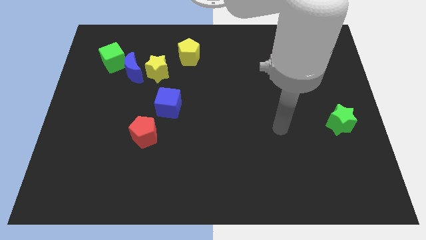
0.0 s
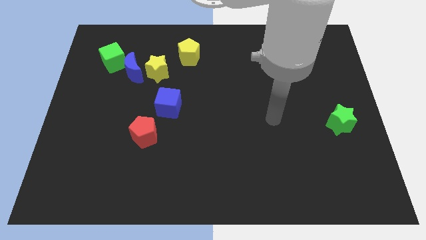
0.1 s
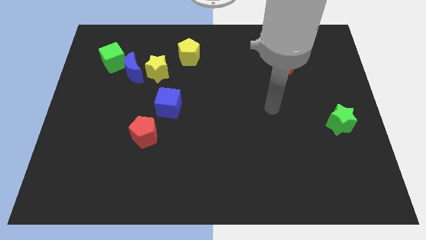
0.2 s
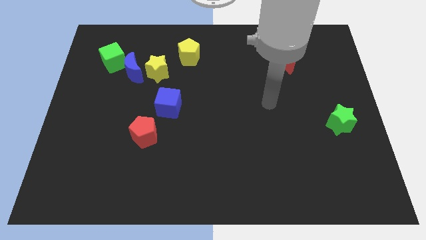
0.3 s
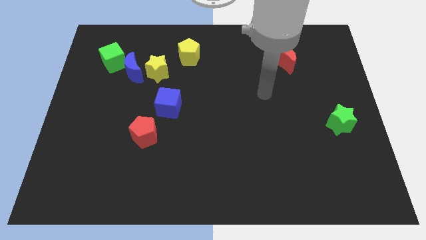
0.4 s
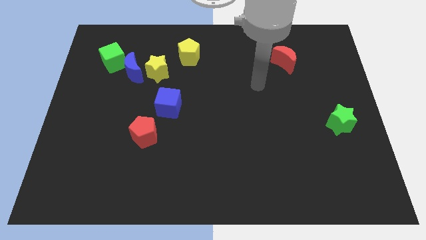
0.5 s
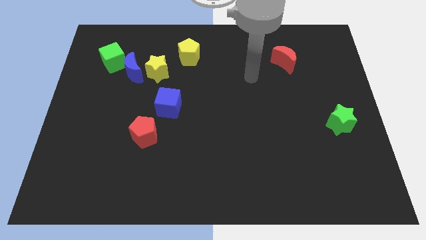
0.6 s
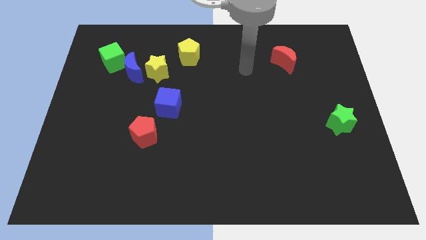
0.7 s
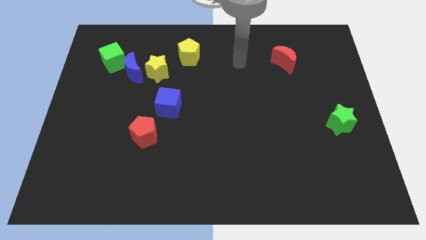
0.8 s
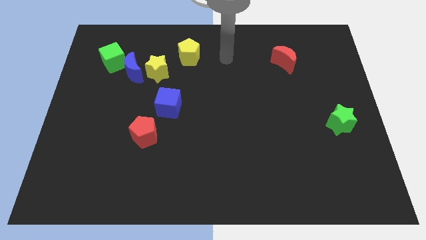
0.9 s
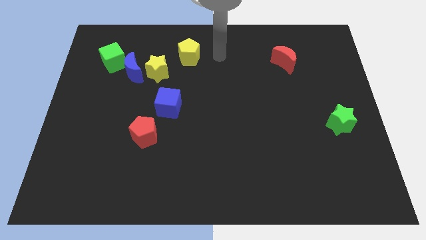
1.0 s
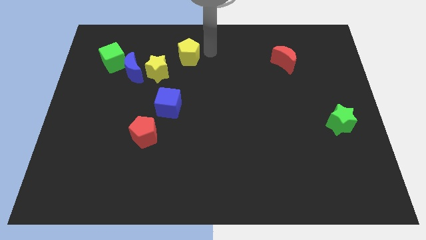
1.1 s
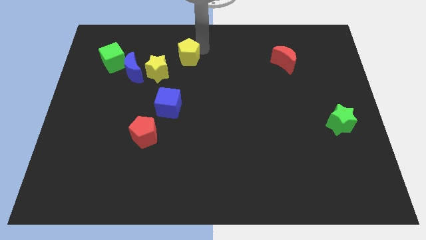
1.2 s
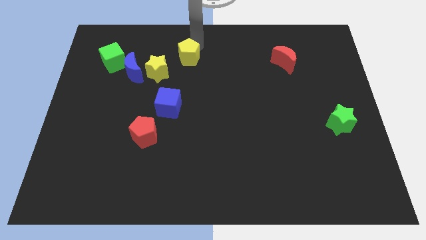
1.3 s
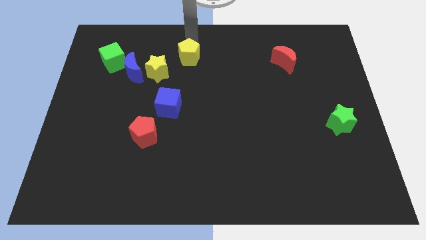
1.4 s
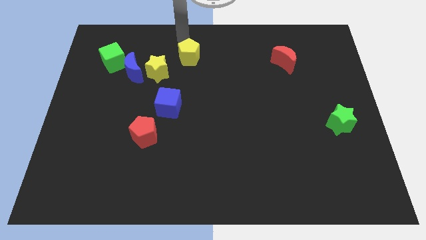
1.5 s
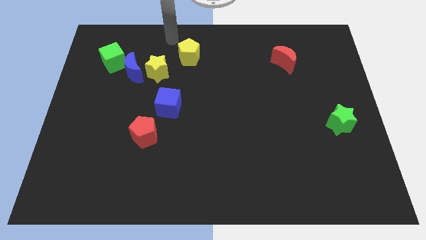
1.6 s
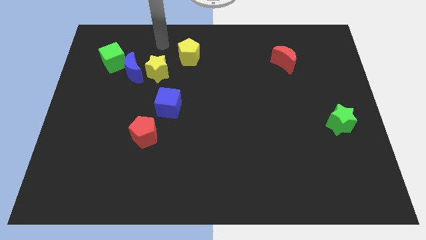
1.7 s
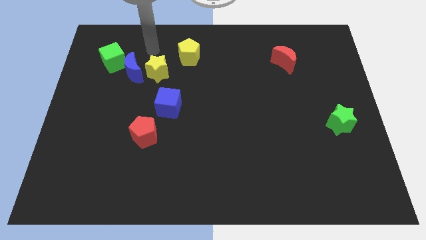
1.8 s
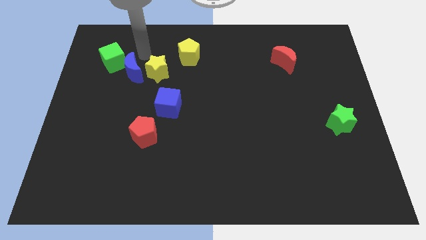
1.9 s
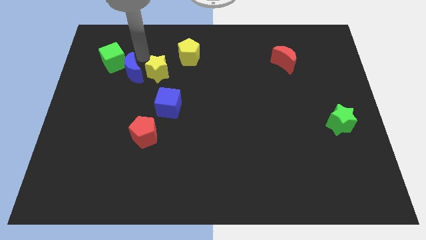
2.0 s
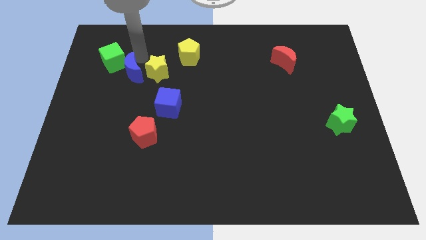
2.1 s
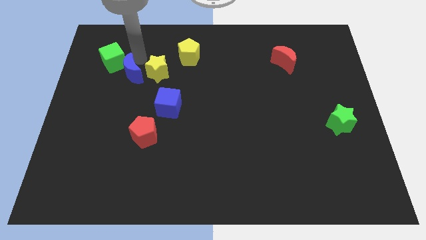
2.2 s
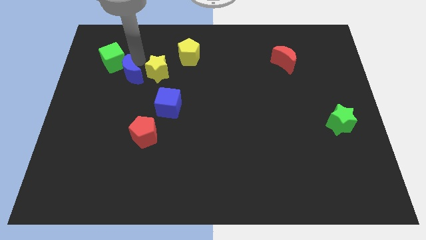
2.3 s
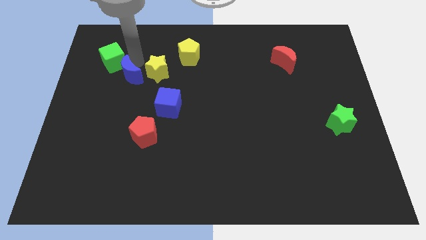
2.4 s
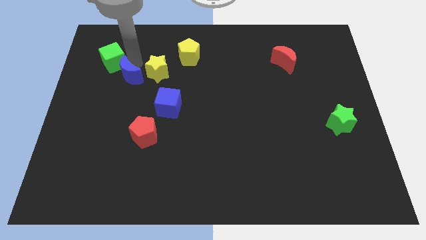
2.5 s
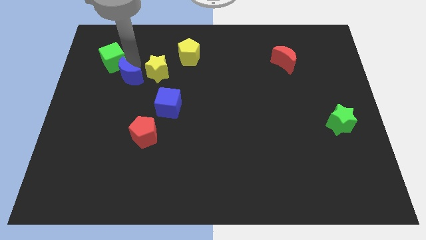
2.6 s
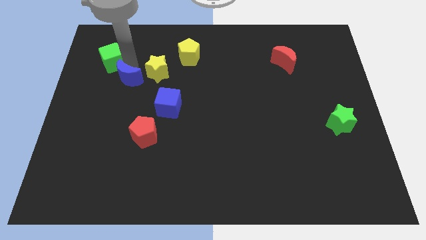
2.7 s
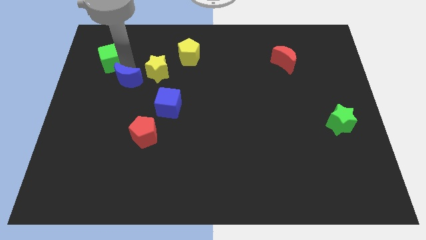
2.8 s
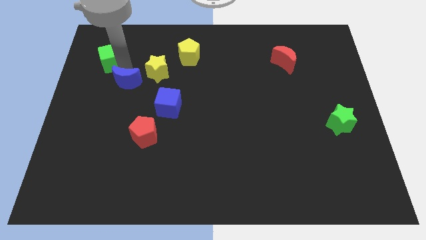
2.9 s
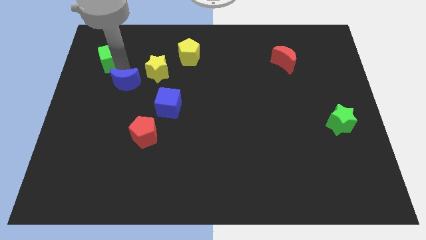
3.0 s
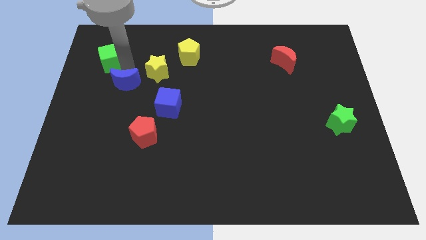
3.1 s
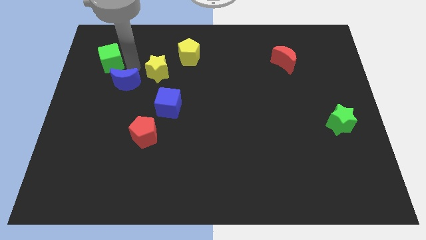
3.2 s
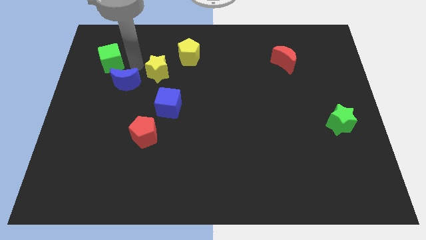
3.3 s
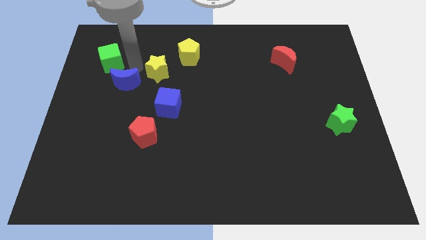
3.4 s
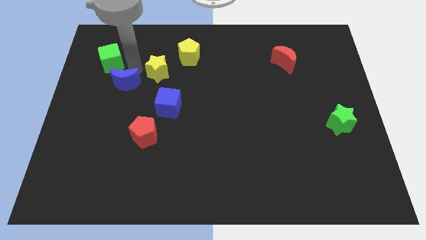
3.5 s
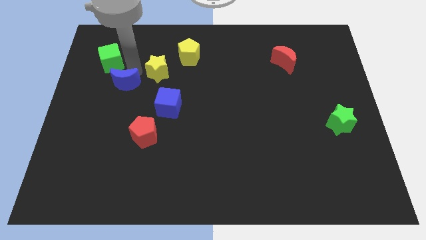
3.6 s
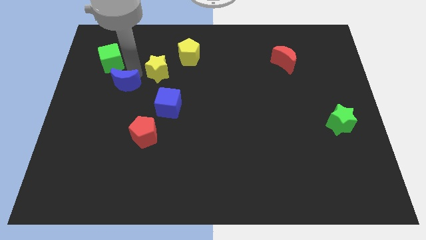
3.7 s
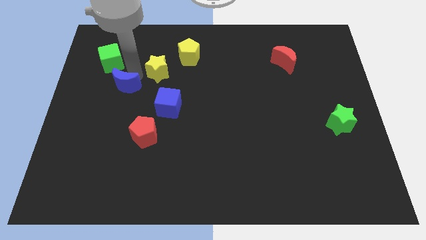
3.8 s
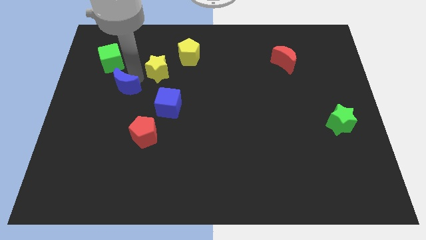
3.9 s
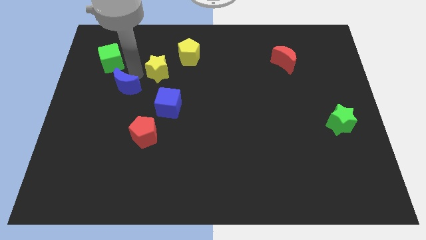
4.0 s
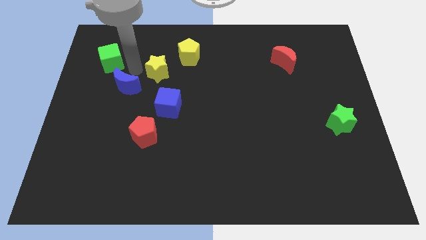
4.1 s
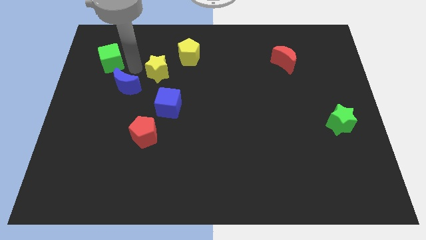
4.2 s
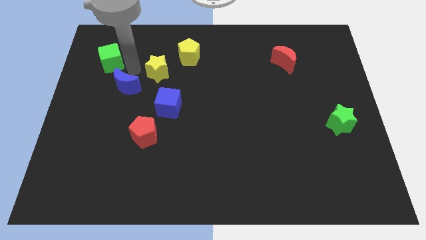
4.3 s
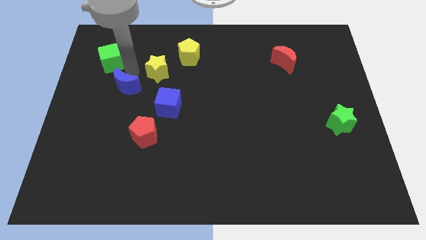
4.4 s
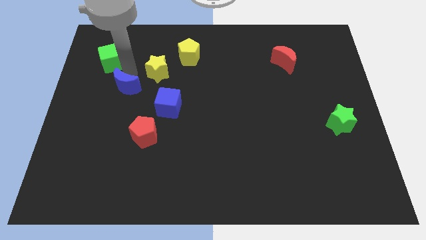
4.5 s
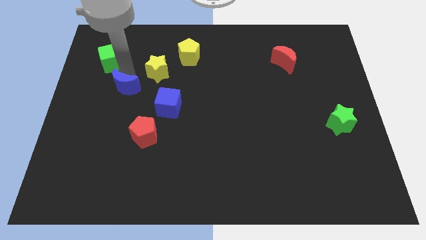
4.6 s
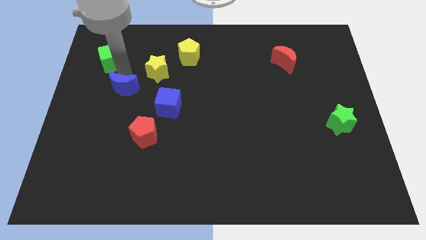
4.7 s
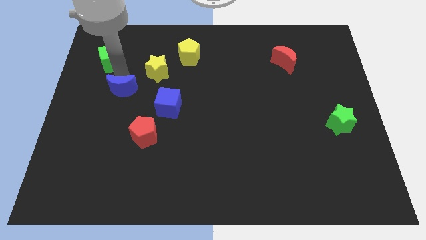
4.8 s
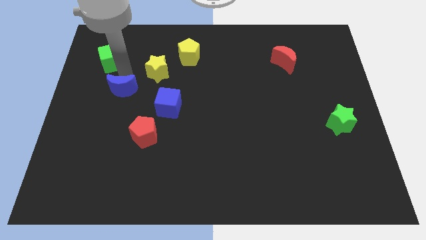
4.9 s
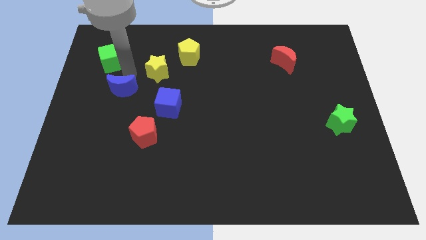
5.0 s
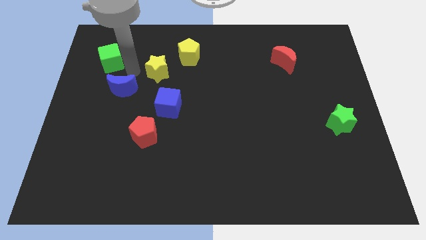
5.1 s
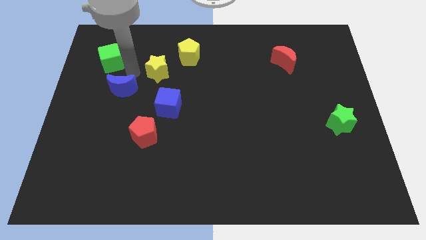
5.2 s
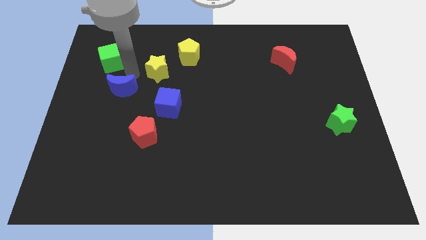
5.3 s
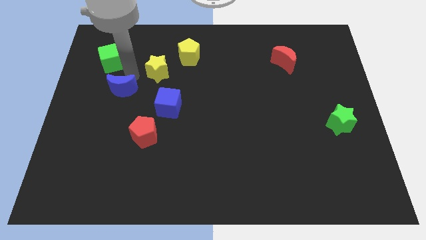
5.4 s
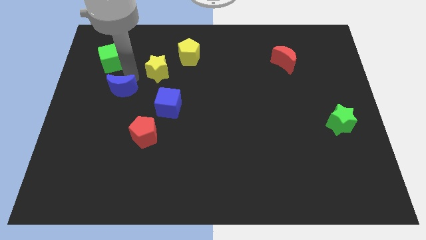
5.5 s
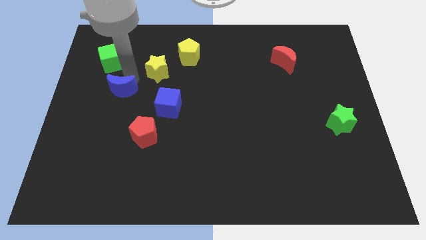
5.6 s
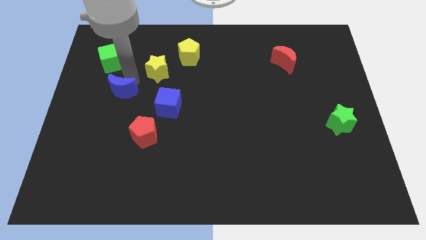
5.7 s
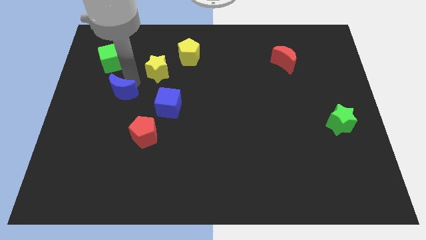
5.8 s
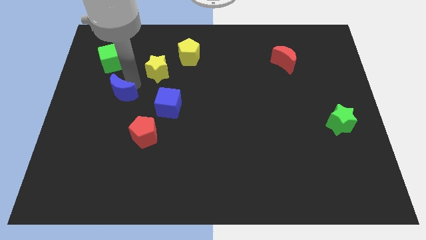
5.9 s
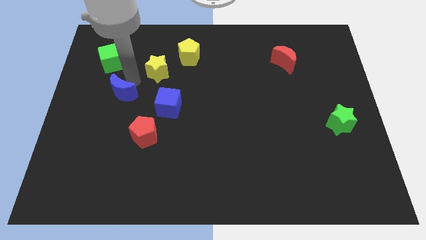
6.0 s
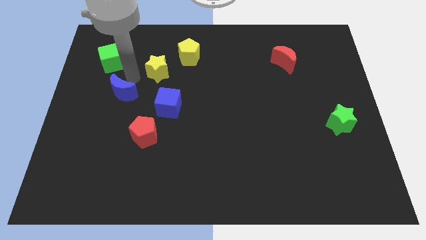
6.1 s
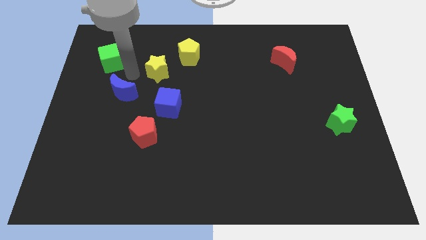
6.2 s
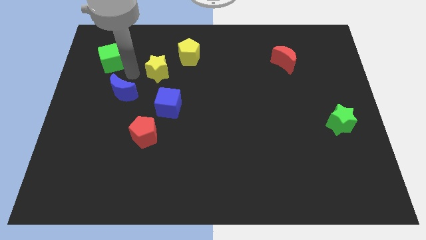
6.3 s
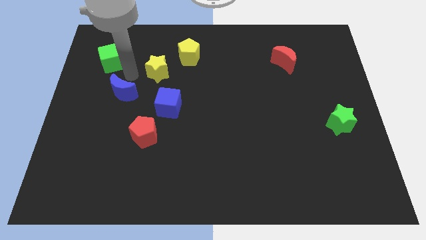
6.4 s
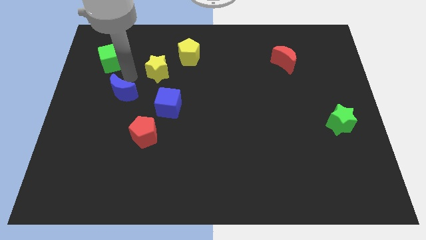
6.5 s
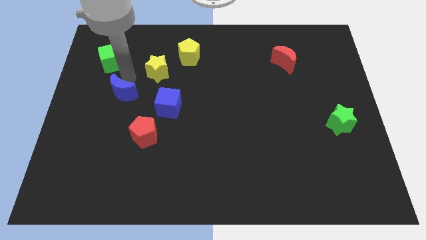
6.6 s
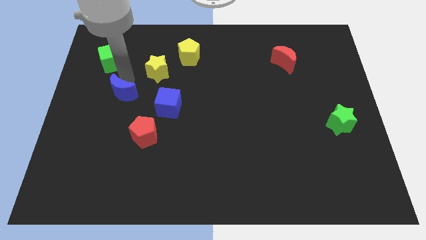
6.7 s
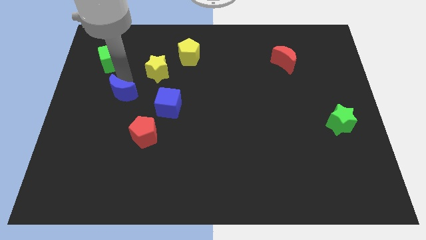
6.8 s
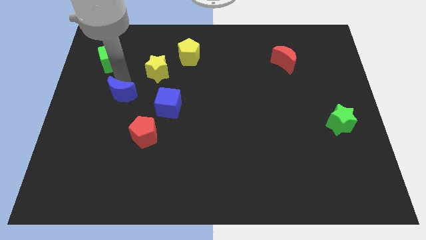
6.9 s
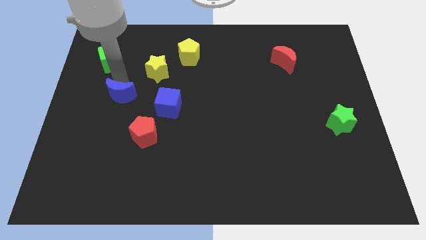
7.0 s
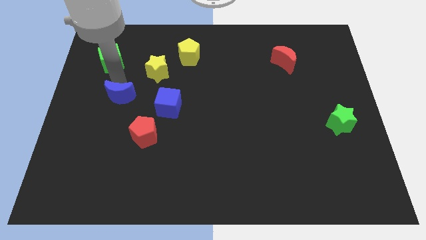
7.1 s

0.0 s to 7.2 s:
separate the blue moon from the yellow star and green cube

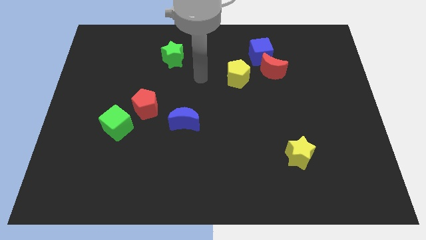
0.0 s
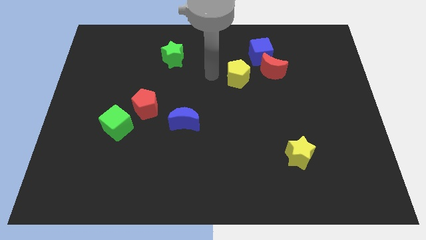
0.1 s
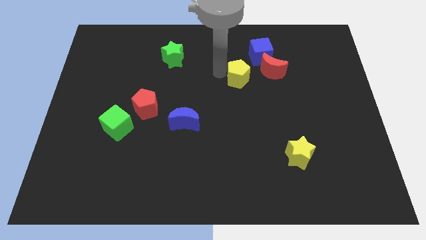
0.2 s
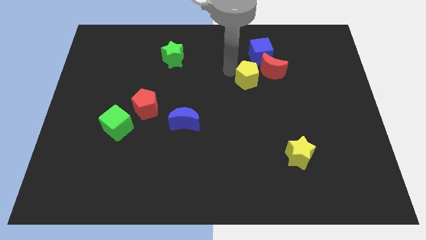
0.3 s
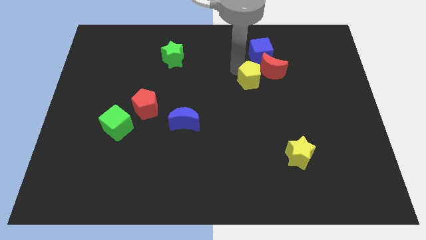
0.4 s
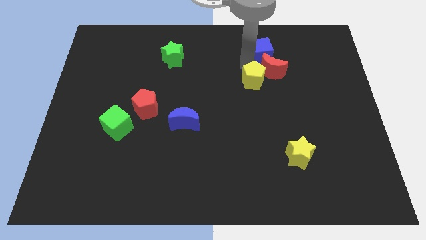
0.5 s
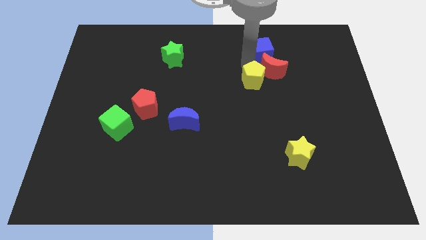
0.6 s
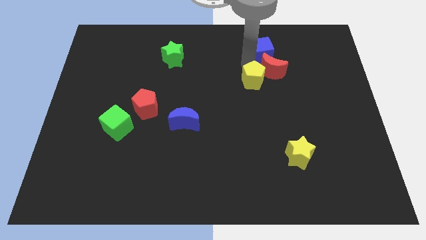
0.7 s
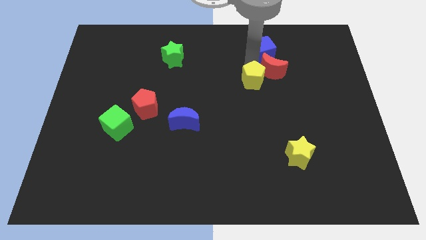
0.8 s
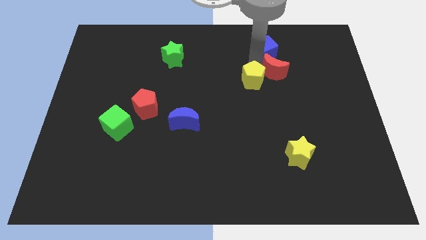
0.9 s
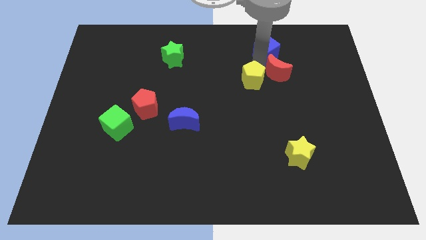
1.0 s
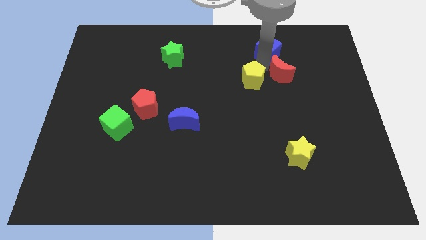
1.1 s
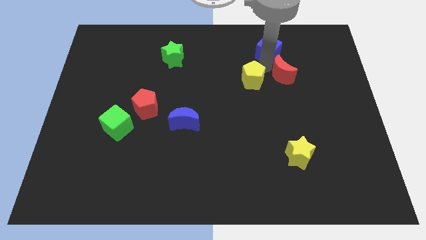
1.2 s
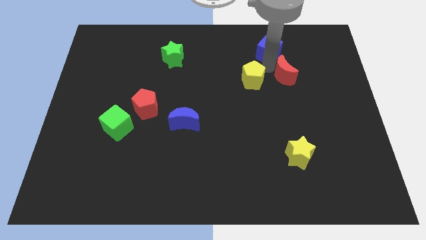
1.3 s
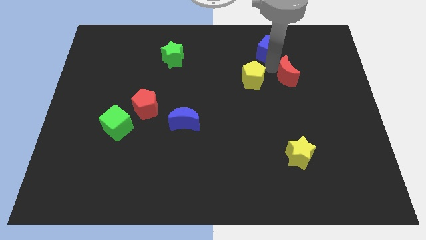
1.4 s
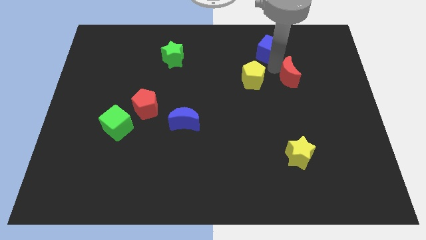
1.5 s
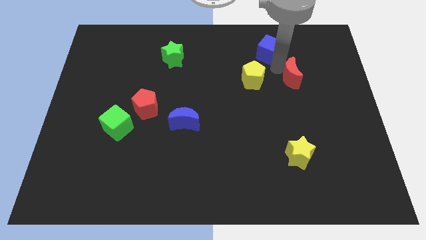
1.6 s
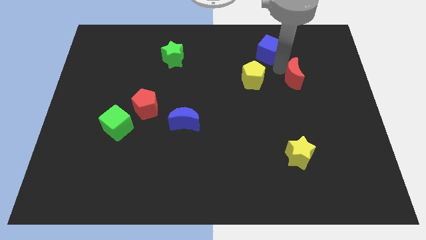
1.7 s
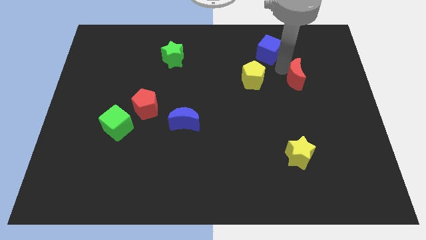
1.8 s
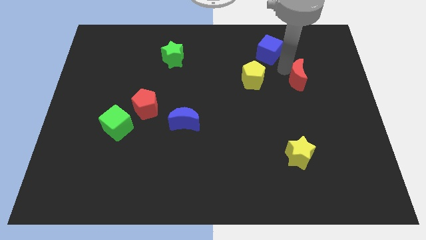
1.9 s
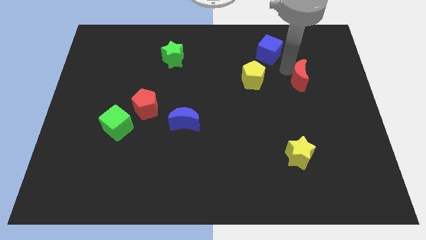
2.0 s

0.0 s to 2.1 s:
separate the red moon from the blue cube and yellow pentagon

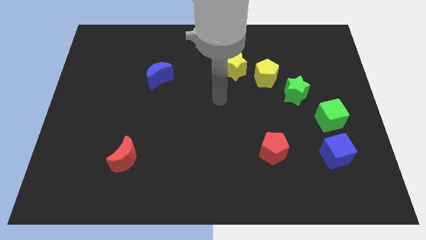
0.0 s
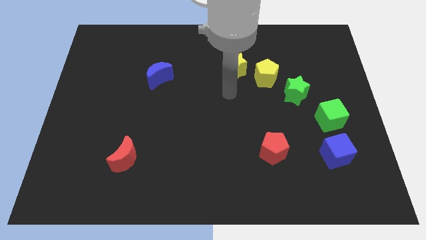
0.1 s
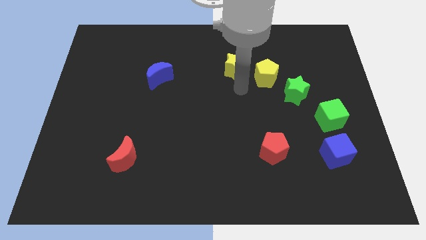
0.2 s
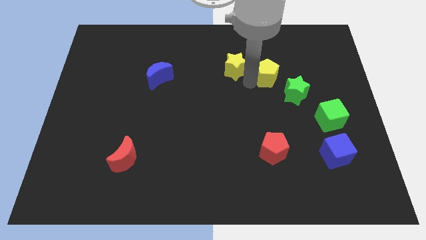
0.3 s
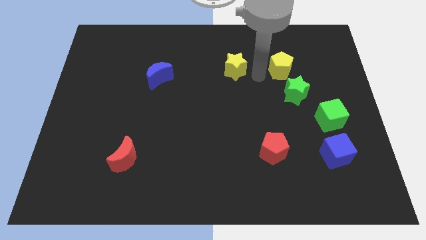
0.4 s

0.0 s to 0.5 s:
separate the yellow star from the yellow pentagon
